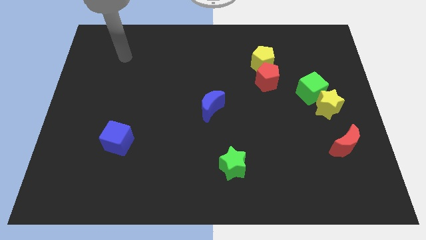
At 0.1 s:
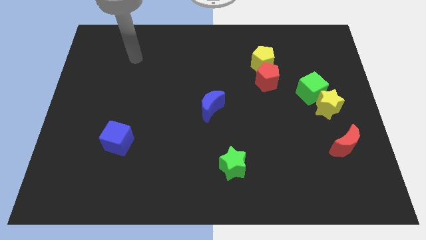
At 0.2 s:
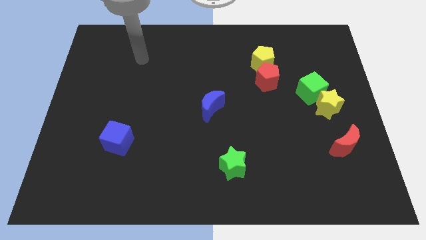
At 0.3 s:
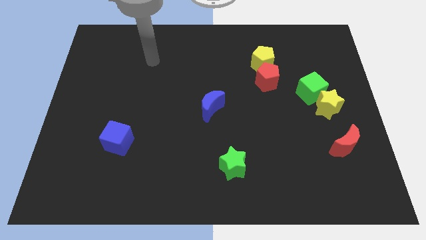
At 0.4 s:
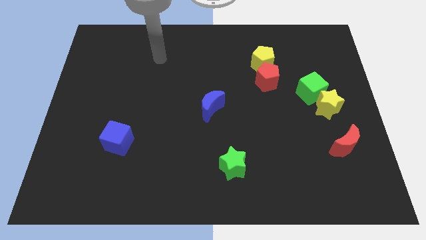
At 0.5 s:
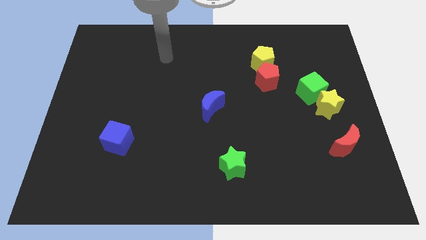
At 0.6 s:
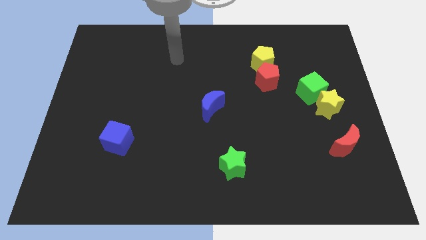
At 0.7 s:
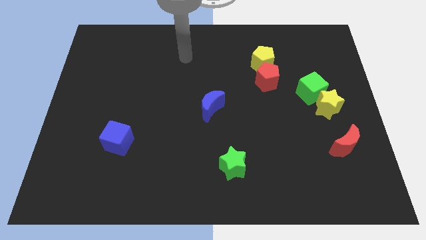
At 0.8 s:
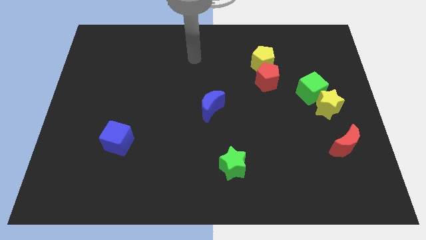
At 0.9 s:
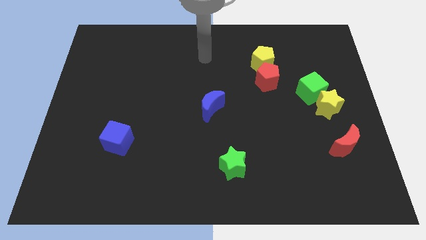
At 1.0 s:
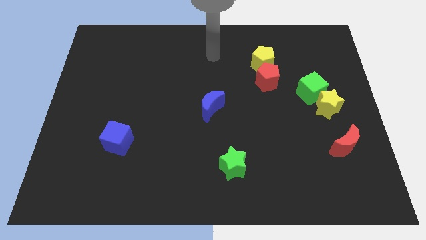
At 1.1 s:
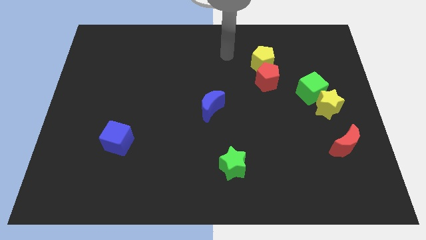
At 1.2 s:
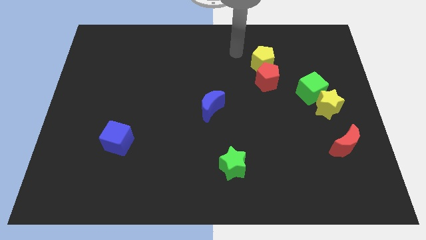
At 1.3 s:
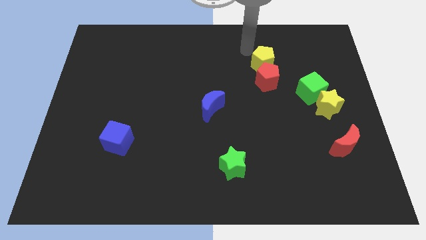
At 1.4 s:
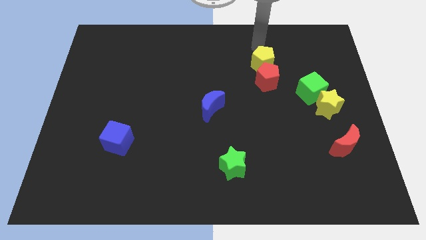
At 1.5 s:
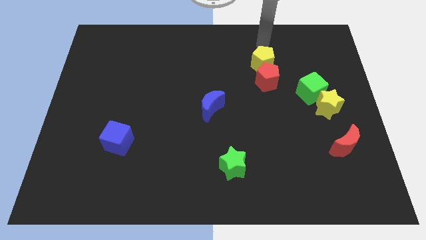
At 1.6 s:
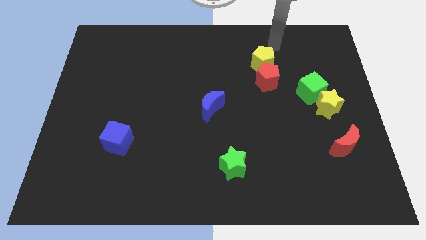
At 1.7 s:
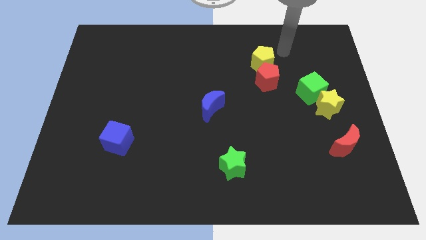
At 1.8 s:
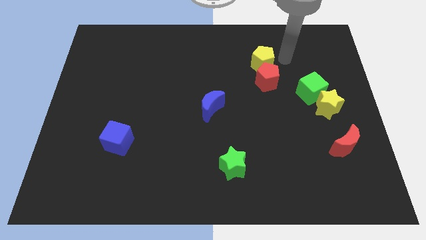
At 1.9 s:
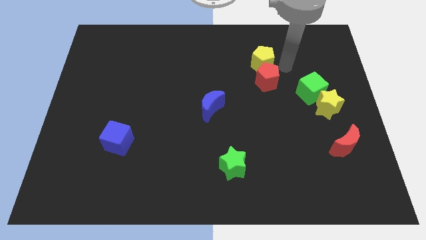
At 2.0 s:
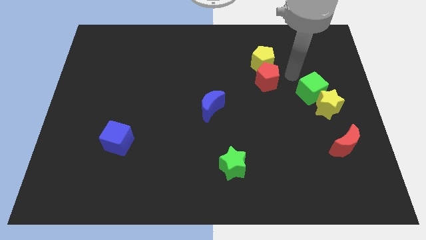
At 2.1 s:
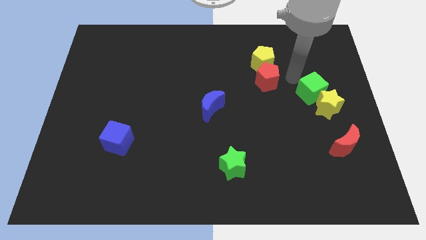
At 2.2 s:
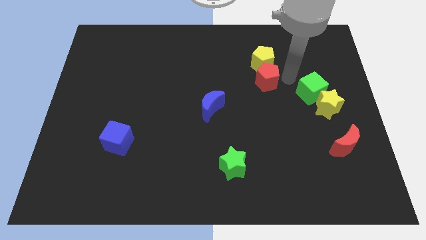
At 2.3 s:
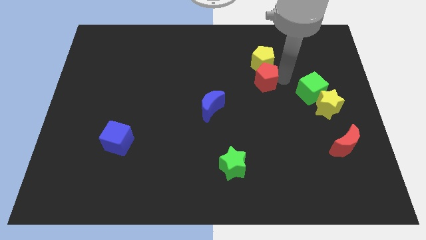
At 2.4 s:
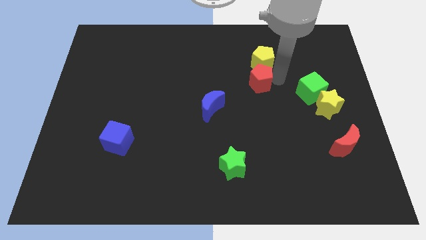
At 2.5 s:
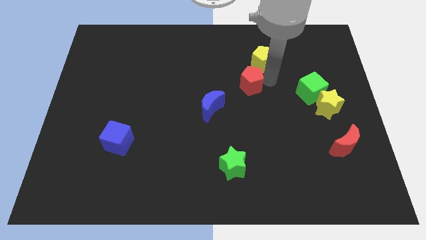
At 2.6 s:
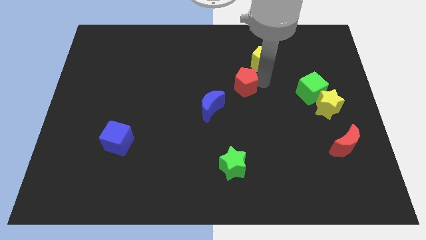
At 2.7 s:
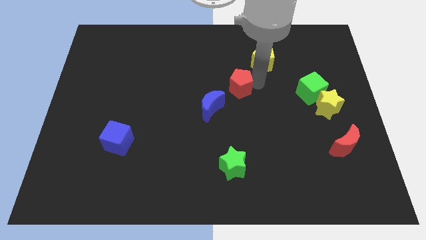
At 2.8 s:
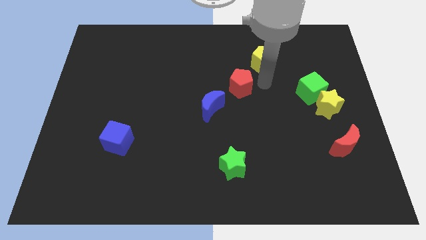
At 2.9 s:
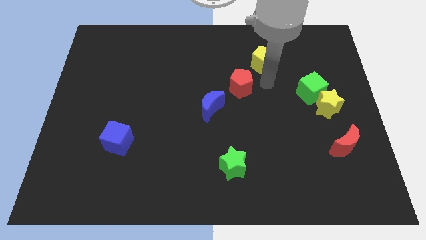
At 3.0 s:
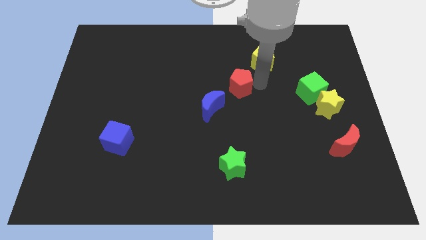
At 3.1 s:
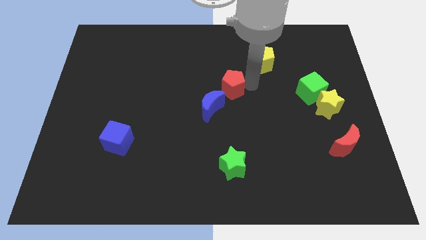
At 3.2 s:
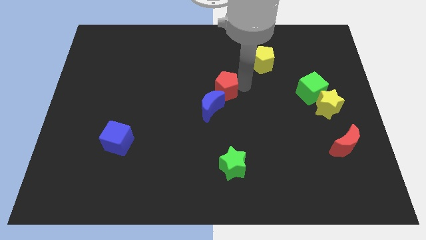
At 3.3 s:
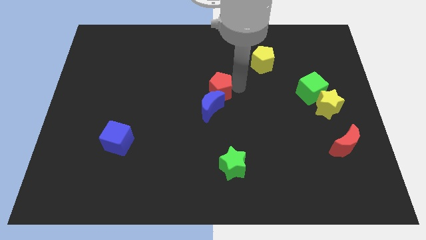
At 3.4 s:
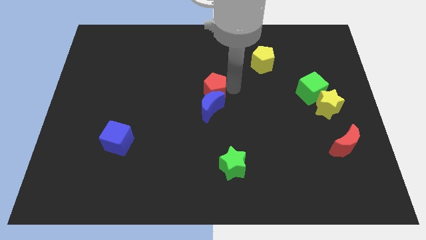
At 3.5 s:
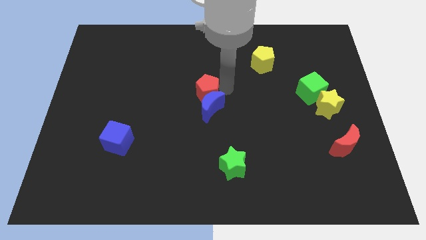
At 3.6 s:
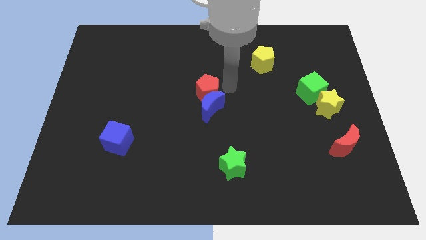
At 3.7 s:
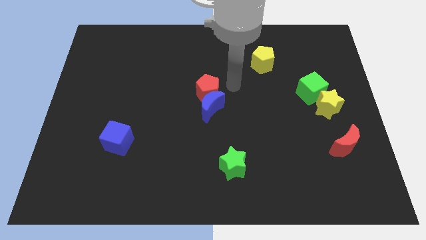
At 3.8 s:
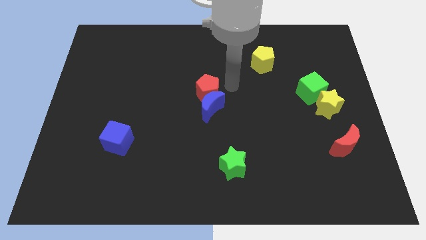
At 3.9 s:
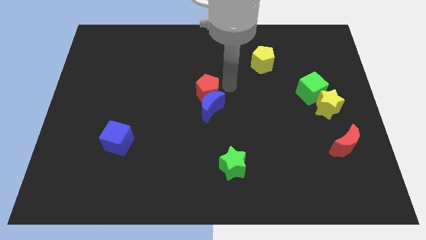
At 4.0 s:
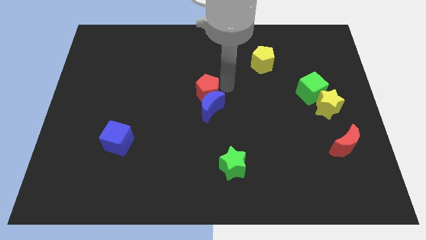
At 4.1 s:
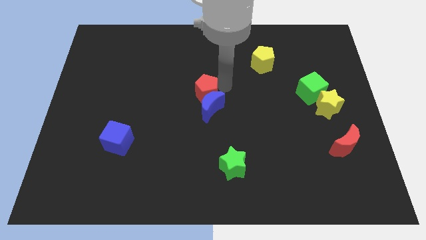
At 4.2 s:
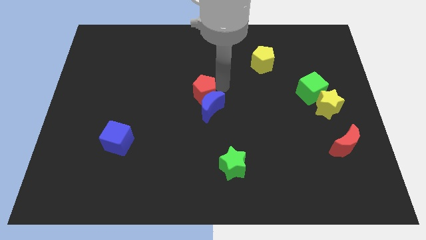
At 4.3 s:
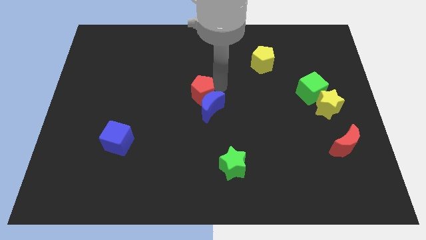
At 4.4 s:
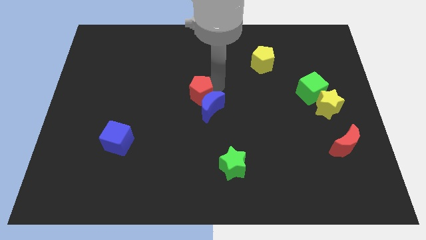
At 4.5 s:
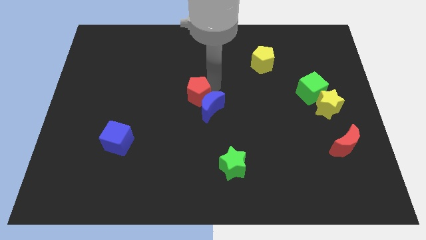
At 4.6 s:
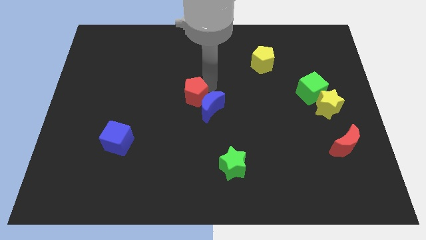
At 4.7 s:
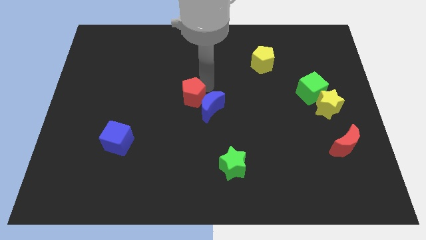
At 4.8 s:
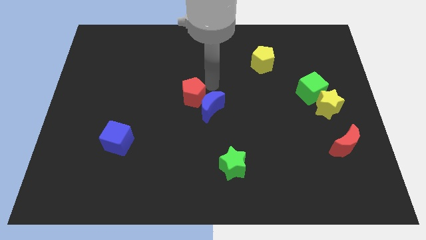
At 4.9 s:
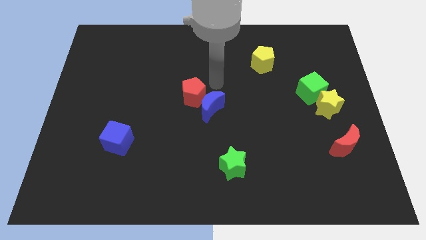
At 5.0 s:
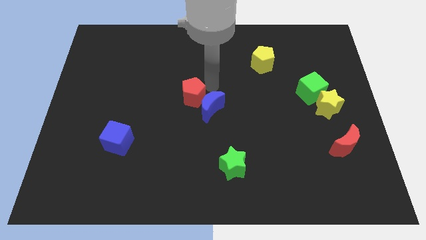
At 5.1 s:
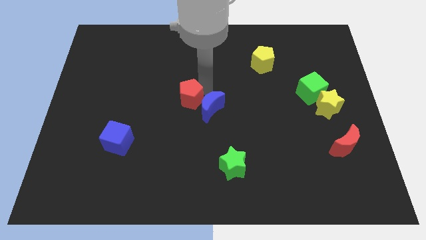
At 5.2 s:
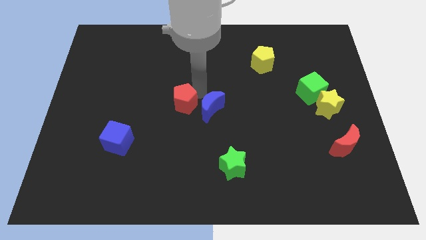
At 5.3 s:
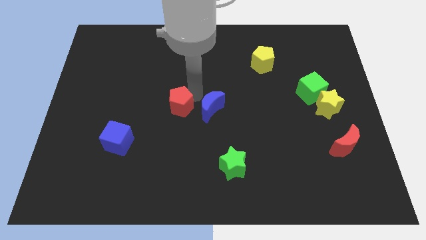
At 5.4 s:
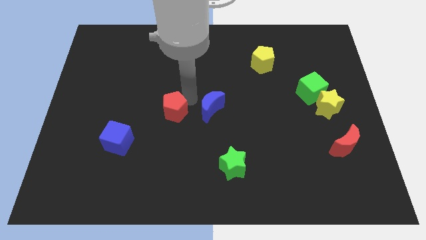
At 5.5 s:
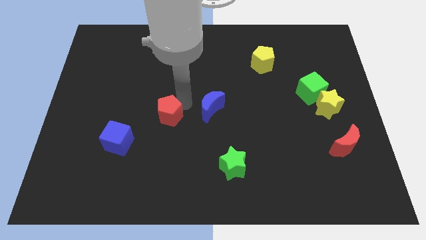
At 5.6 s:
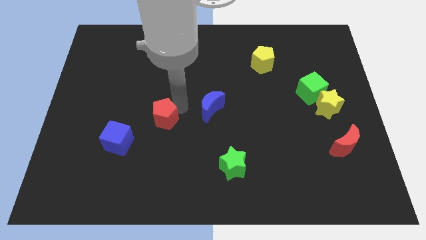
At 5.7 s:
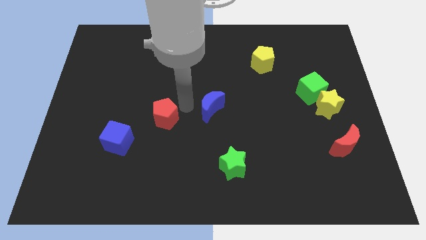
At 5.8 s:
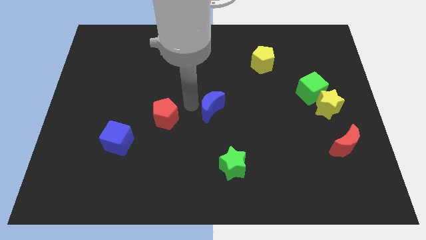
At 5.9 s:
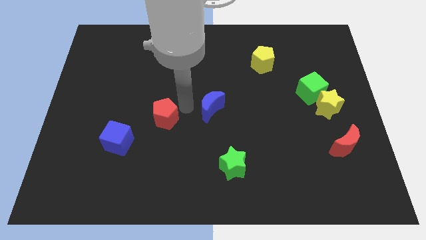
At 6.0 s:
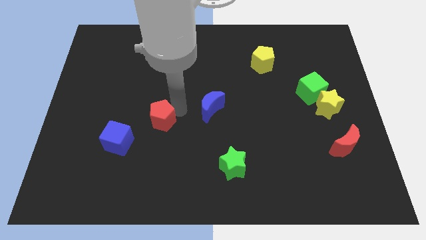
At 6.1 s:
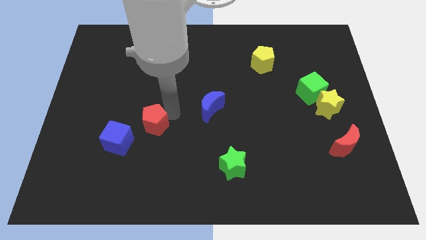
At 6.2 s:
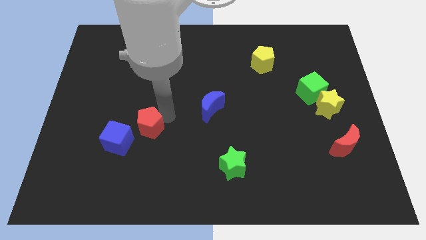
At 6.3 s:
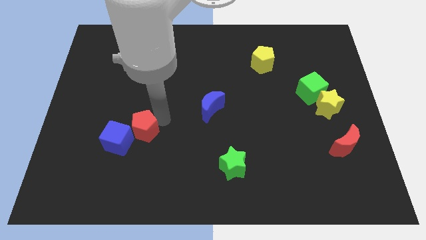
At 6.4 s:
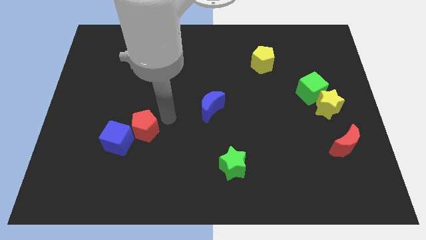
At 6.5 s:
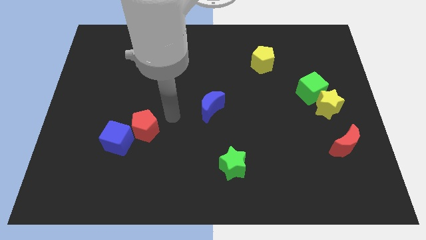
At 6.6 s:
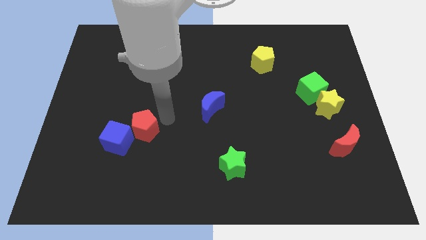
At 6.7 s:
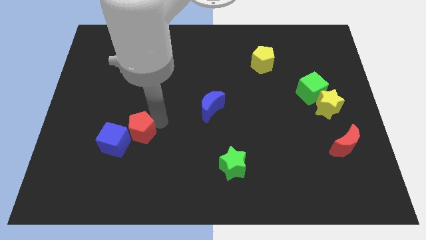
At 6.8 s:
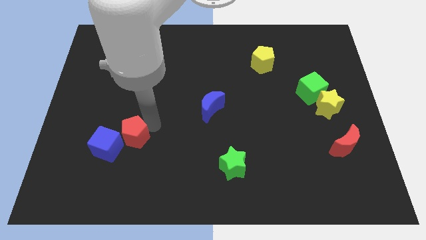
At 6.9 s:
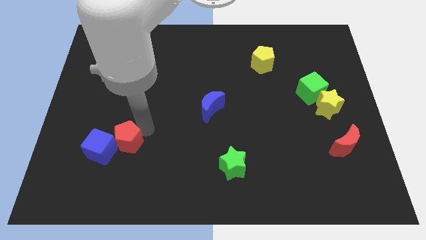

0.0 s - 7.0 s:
slide the red pentagon next to the blue cube
